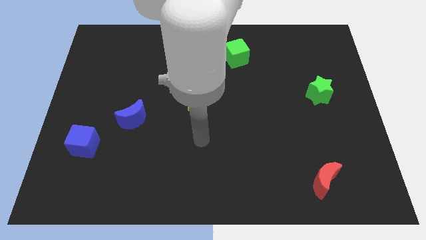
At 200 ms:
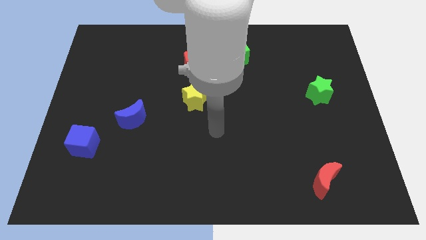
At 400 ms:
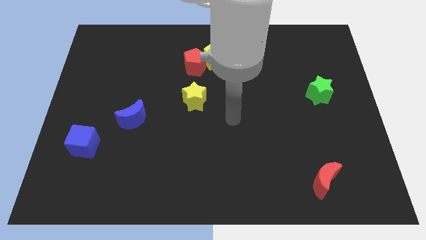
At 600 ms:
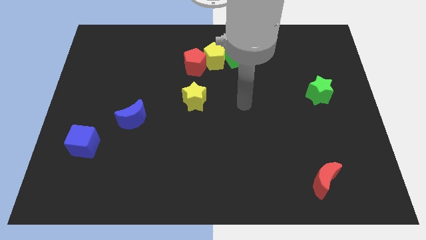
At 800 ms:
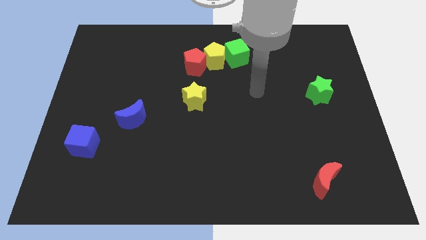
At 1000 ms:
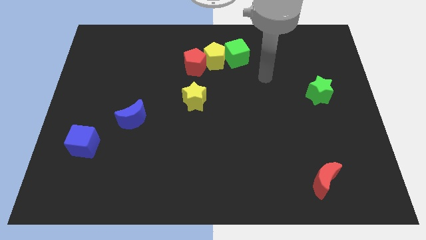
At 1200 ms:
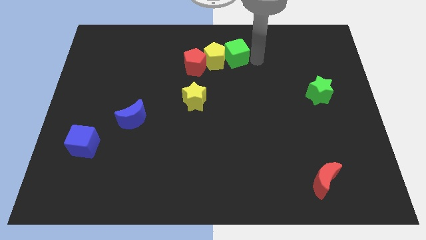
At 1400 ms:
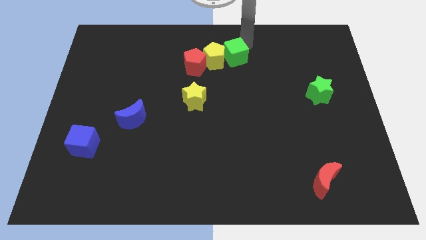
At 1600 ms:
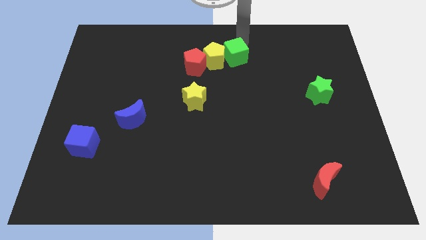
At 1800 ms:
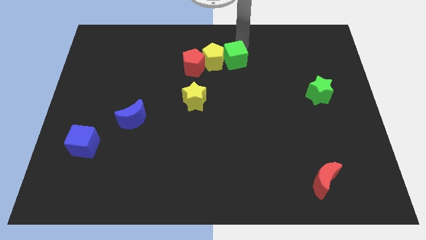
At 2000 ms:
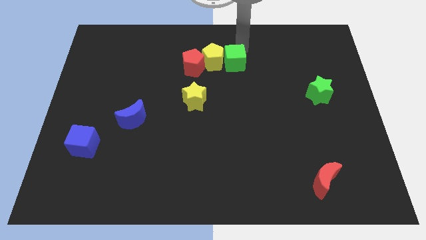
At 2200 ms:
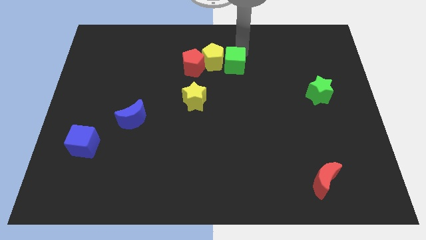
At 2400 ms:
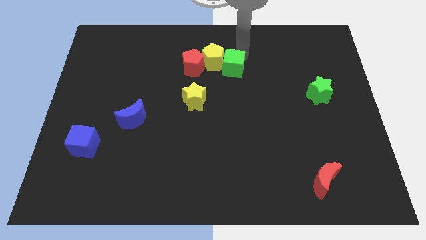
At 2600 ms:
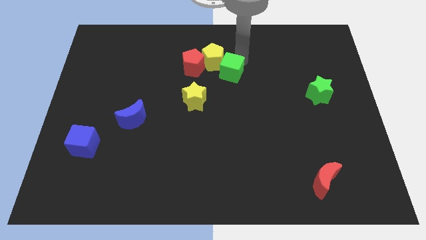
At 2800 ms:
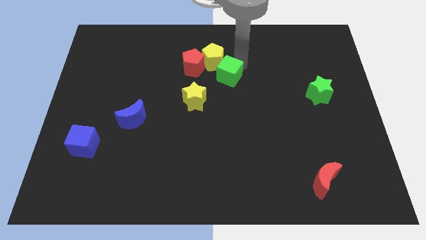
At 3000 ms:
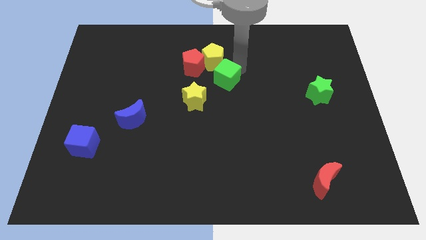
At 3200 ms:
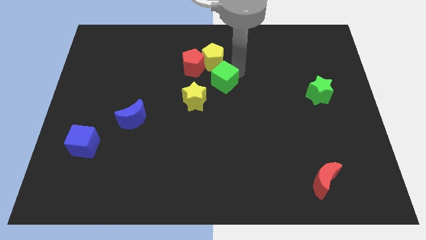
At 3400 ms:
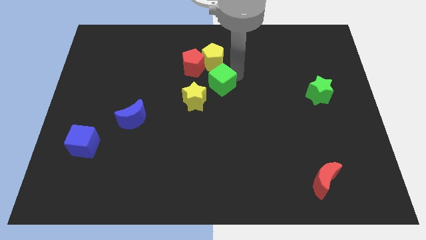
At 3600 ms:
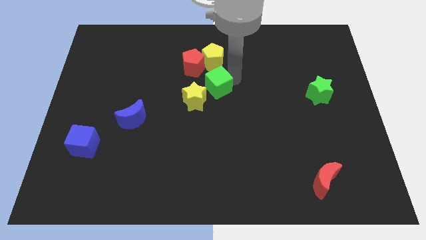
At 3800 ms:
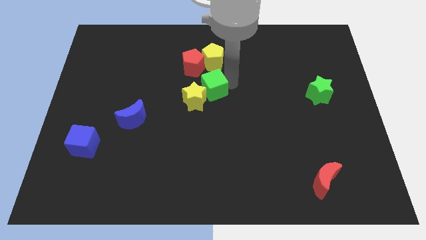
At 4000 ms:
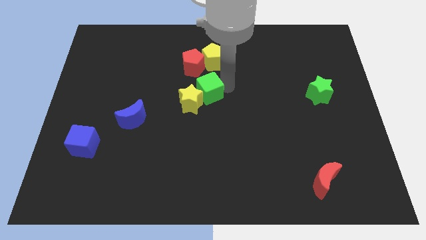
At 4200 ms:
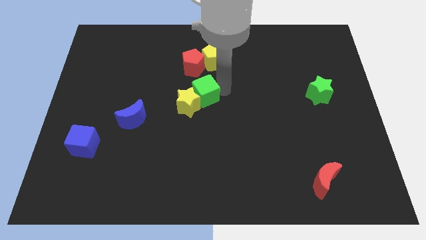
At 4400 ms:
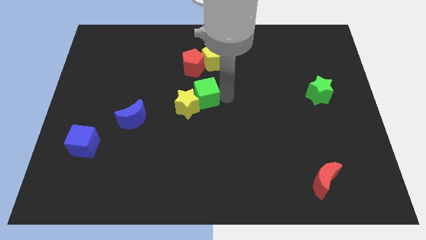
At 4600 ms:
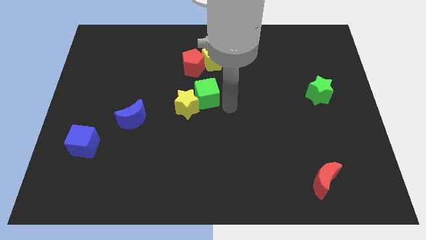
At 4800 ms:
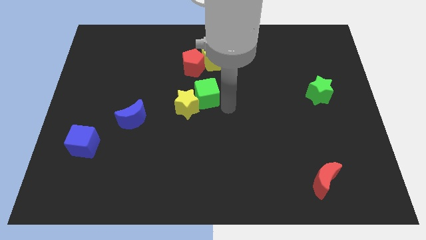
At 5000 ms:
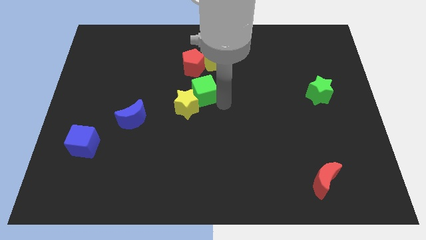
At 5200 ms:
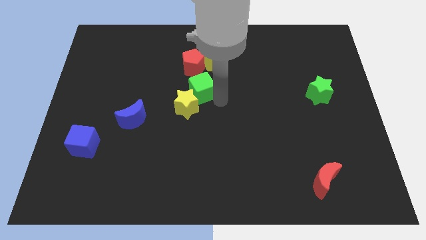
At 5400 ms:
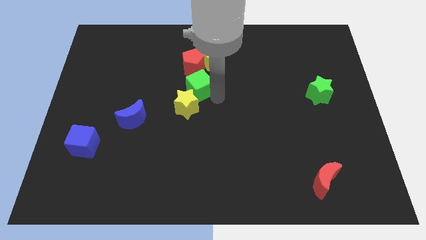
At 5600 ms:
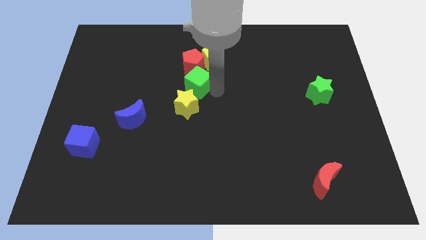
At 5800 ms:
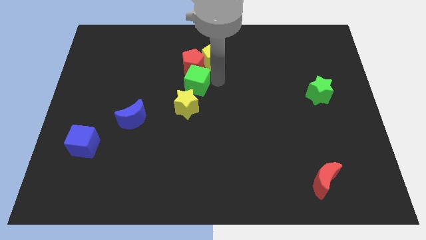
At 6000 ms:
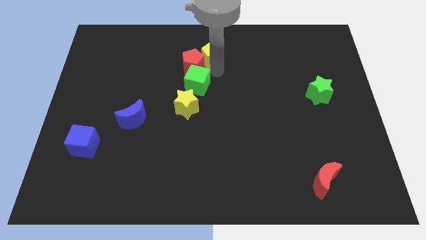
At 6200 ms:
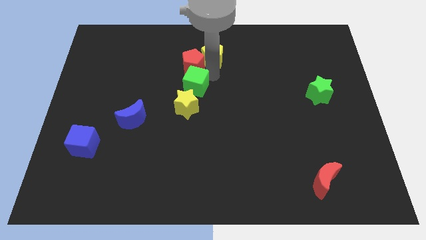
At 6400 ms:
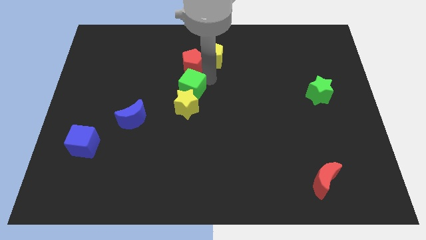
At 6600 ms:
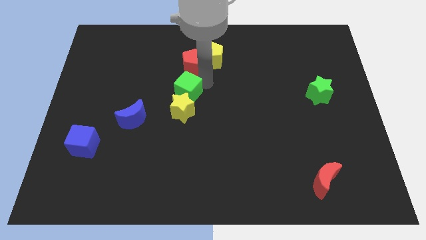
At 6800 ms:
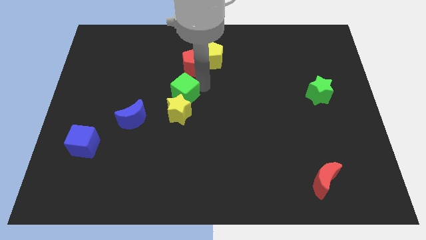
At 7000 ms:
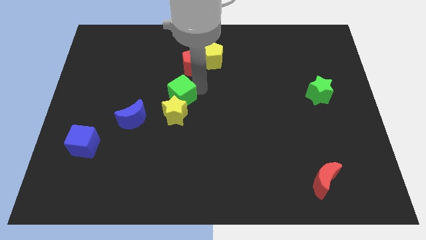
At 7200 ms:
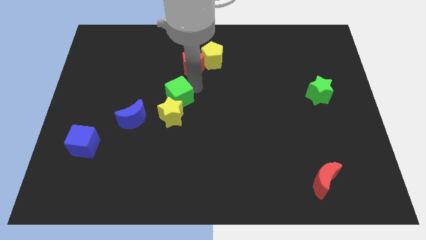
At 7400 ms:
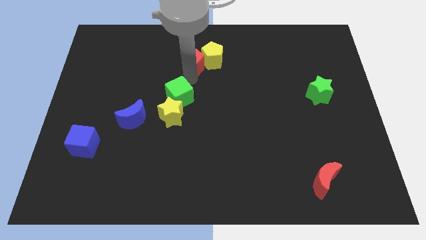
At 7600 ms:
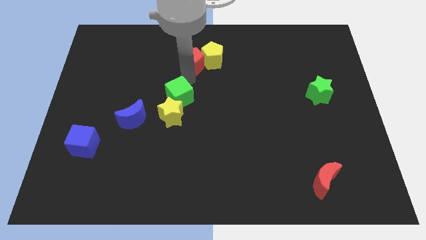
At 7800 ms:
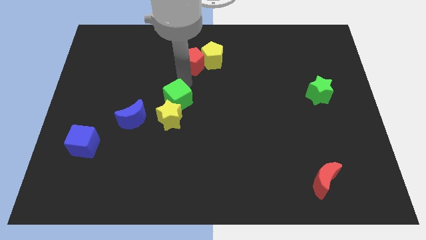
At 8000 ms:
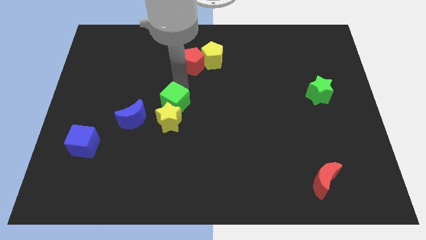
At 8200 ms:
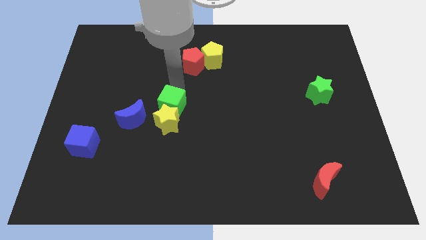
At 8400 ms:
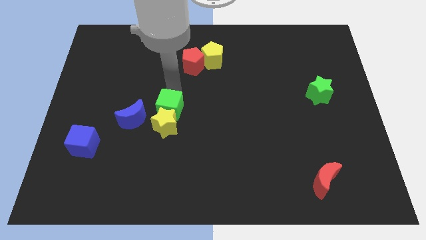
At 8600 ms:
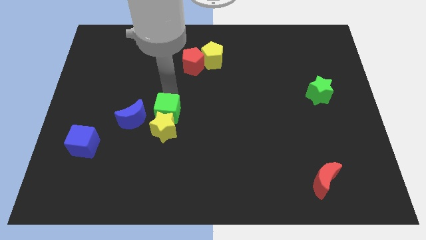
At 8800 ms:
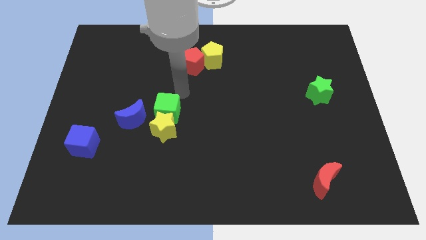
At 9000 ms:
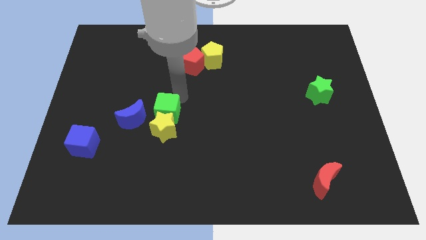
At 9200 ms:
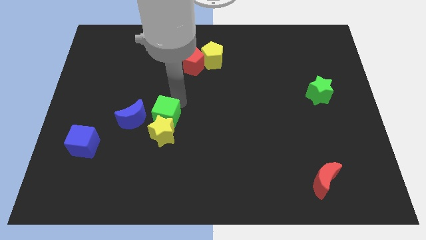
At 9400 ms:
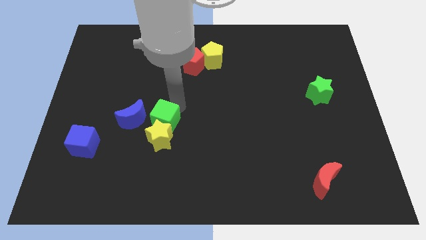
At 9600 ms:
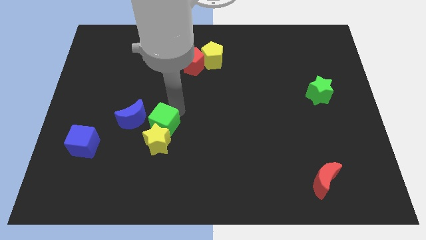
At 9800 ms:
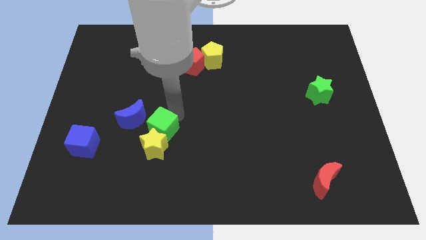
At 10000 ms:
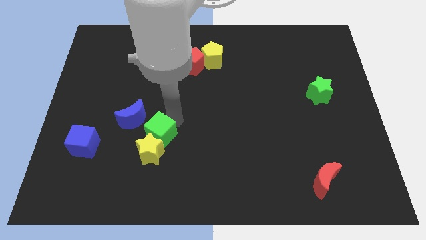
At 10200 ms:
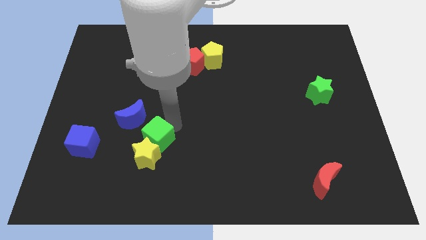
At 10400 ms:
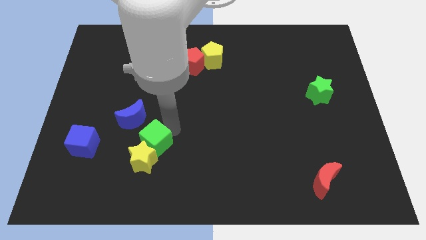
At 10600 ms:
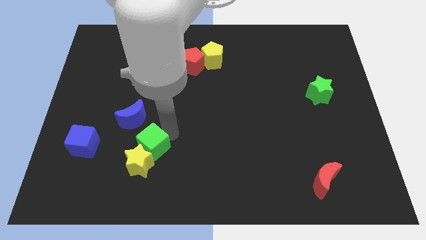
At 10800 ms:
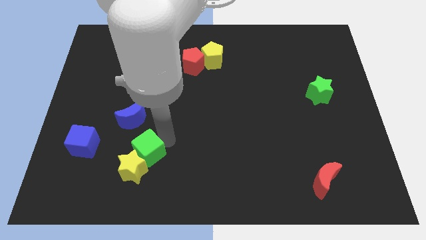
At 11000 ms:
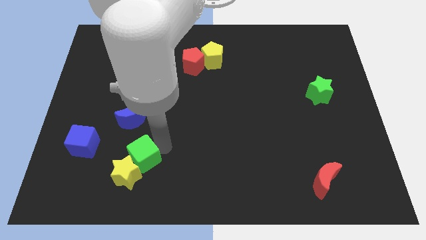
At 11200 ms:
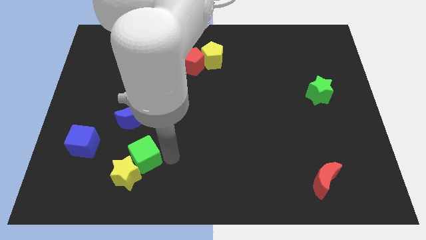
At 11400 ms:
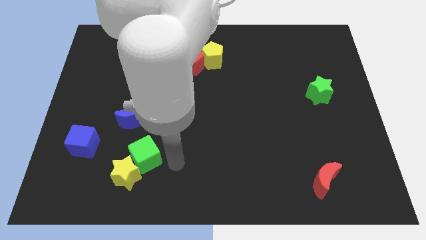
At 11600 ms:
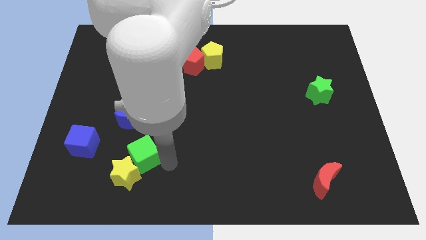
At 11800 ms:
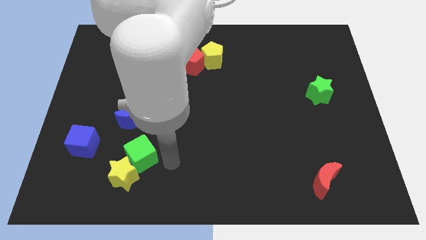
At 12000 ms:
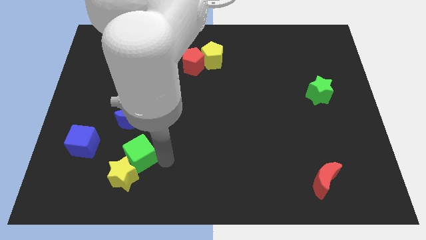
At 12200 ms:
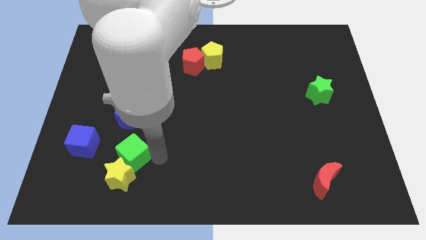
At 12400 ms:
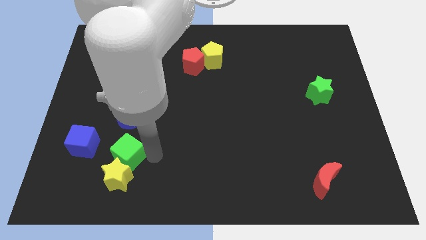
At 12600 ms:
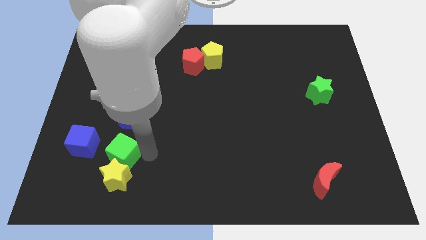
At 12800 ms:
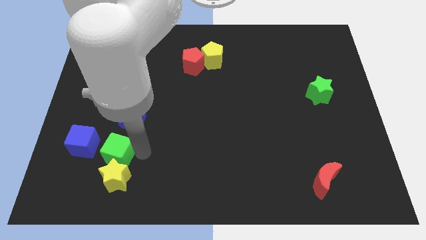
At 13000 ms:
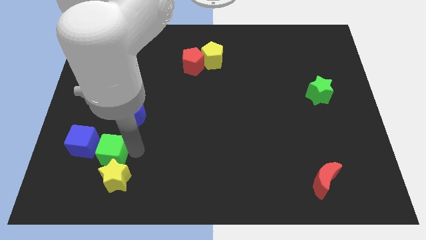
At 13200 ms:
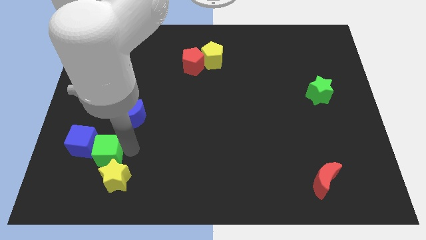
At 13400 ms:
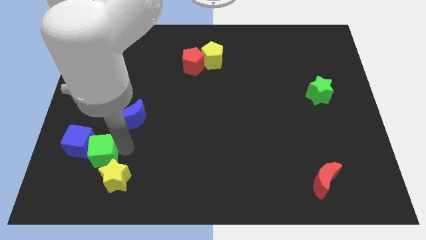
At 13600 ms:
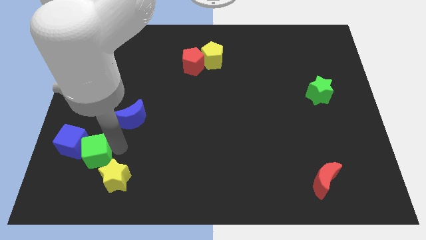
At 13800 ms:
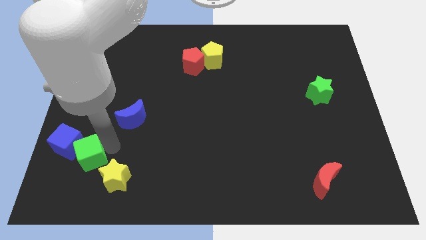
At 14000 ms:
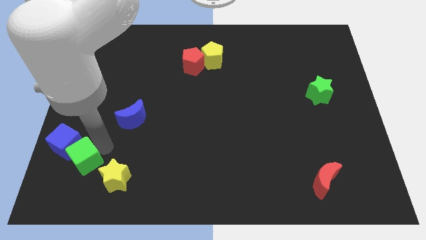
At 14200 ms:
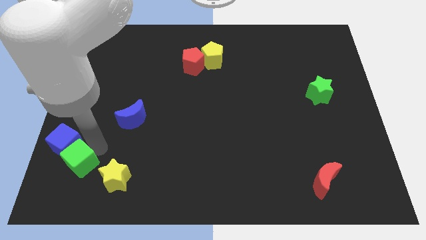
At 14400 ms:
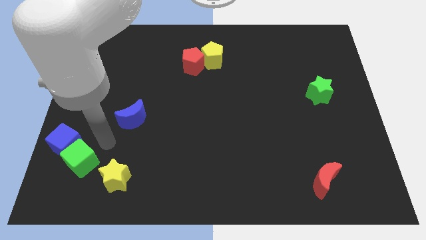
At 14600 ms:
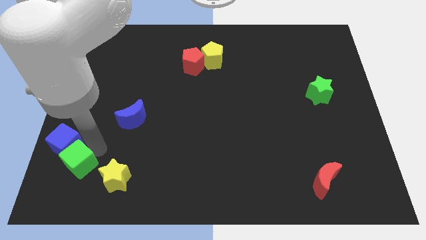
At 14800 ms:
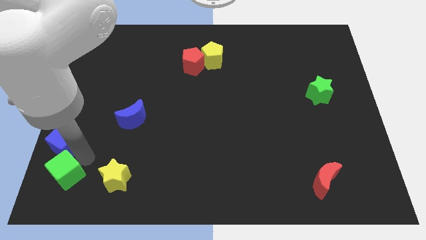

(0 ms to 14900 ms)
push the green cube to the lower left corner

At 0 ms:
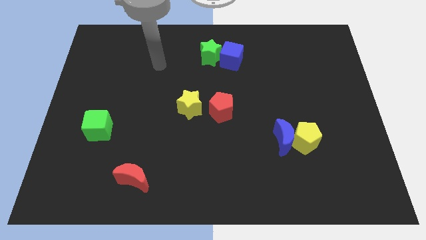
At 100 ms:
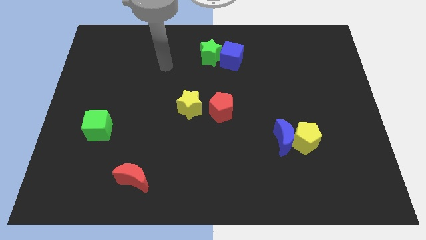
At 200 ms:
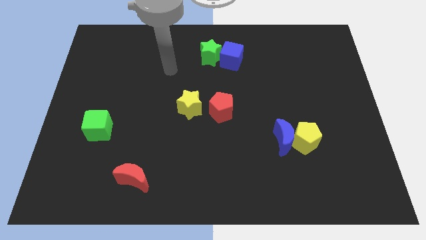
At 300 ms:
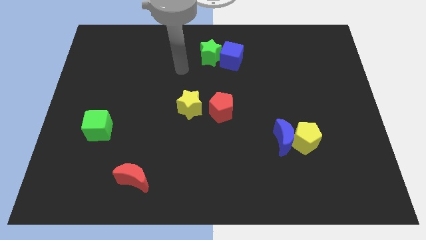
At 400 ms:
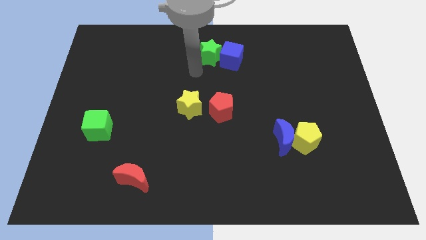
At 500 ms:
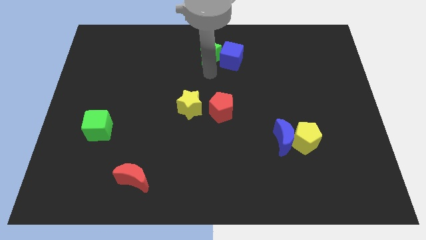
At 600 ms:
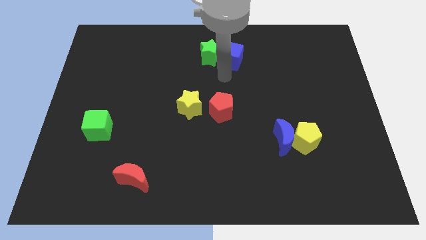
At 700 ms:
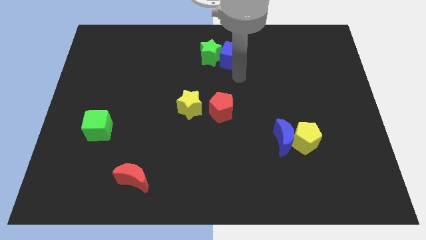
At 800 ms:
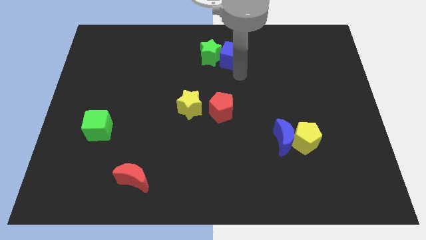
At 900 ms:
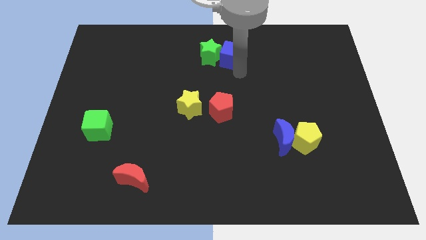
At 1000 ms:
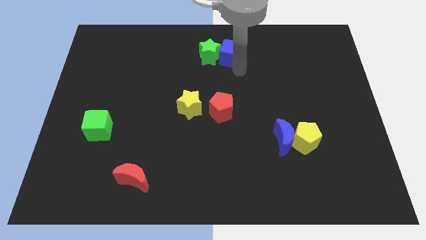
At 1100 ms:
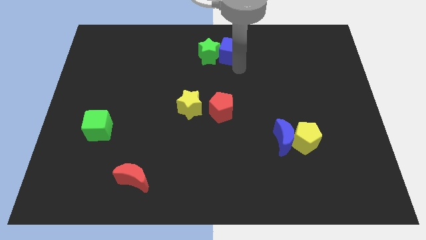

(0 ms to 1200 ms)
put the blue cube to the towards your base
